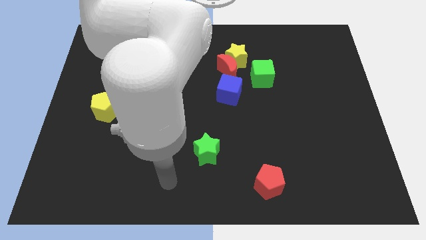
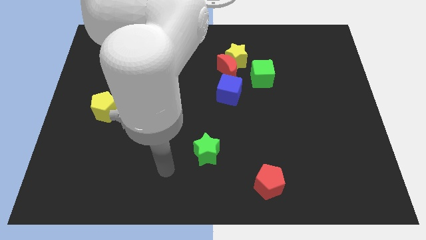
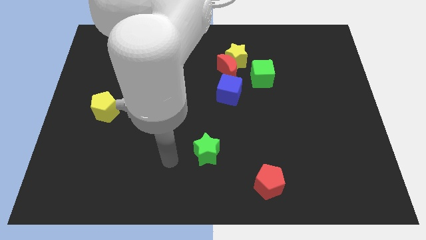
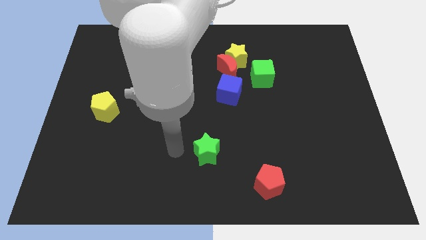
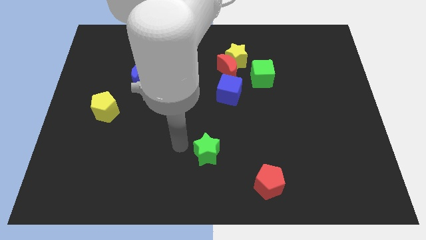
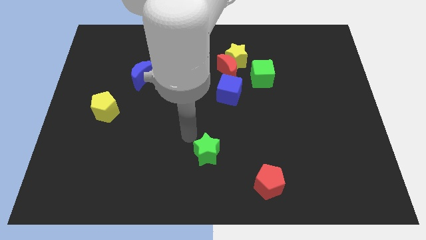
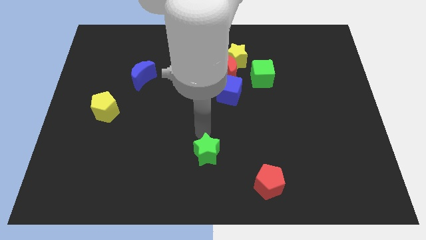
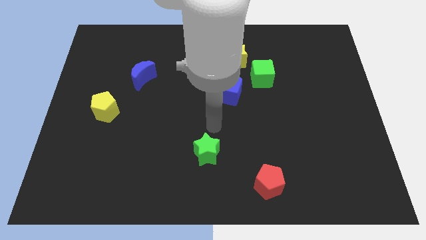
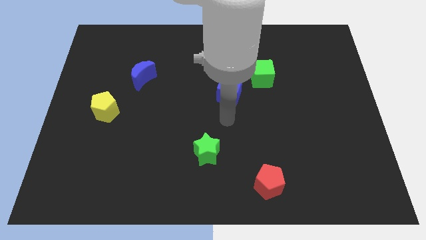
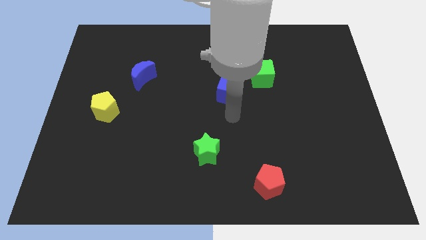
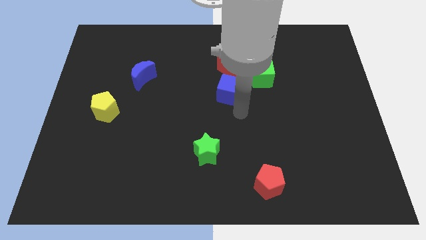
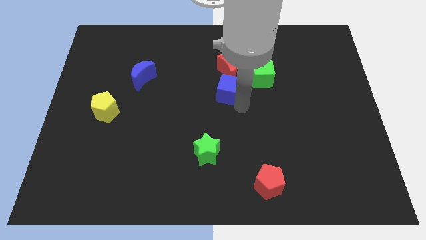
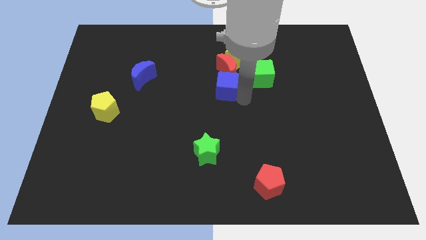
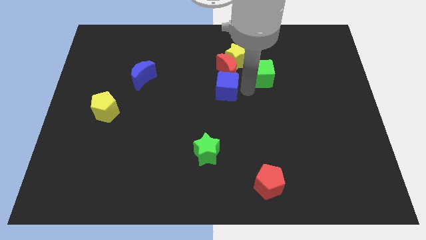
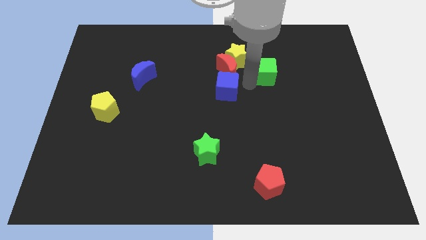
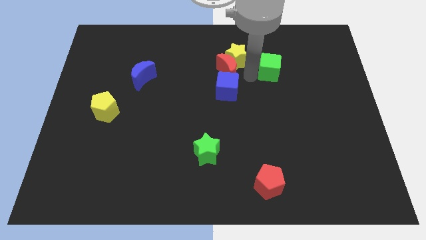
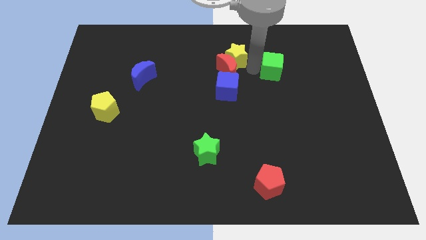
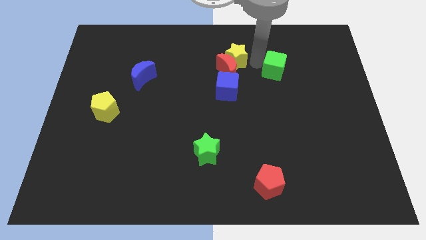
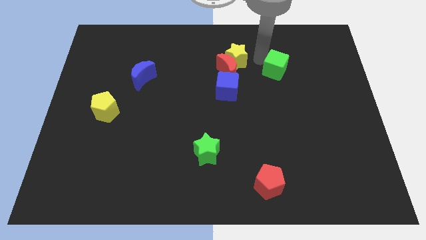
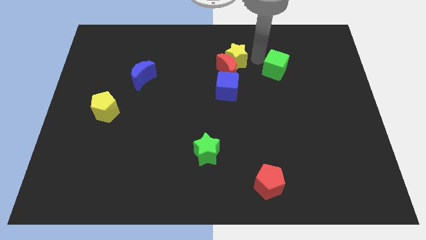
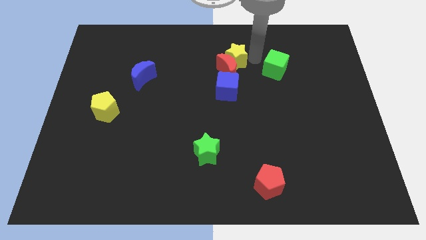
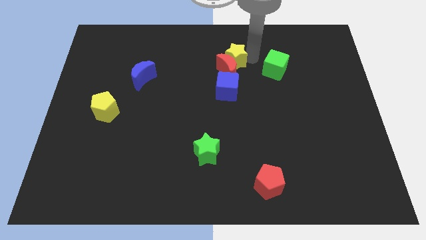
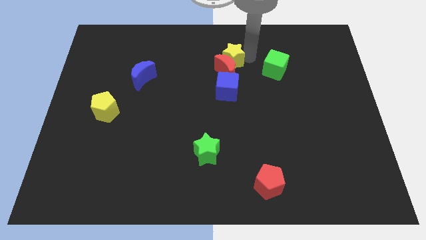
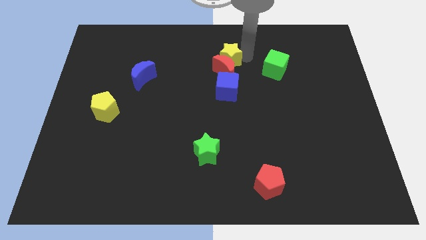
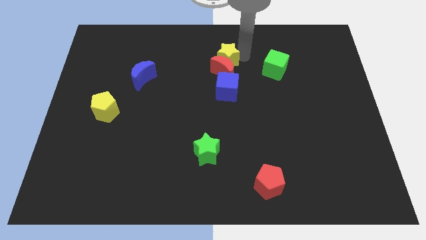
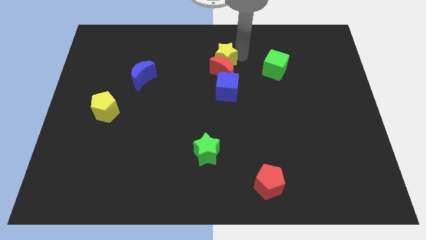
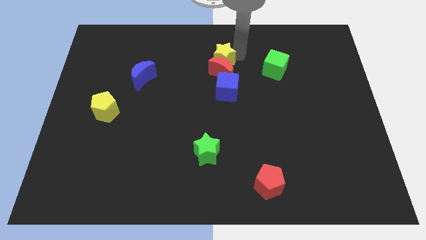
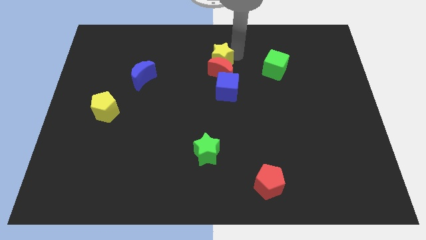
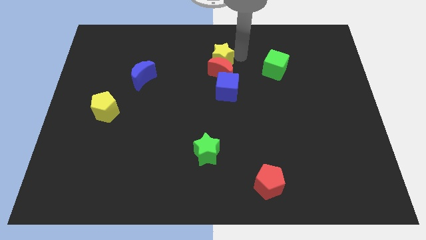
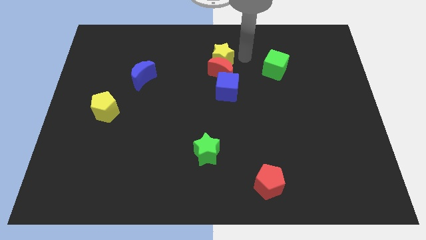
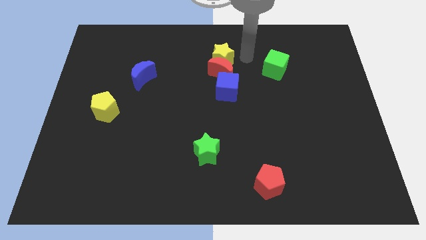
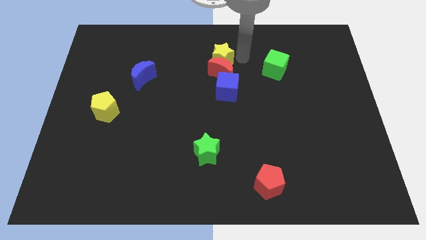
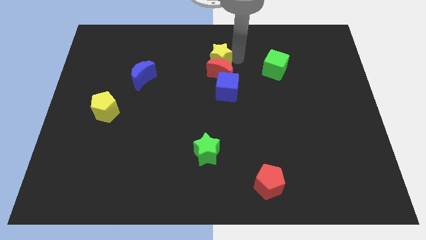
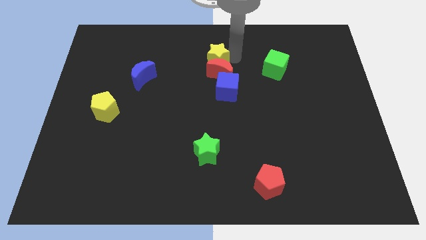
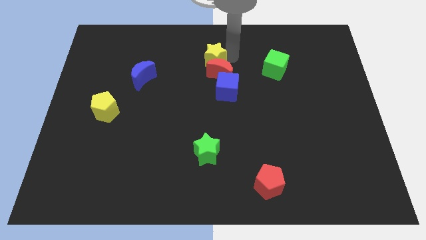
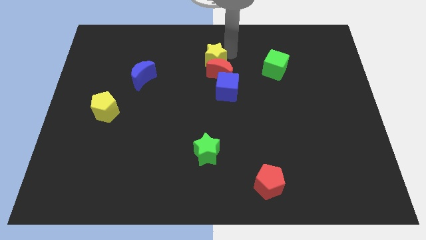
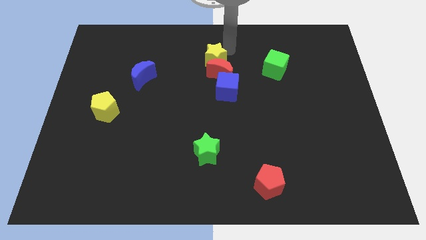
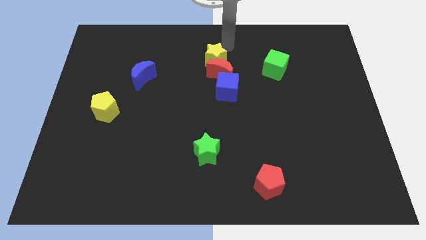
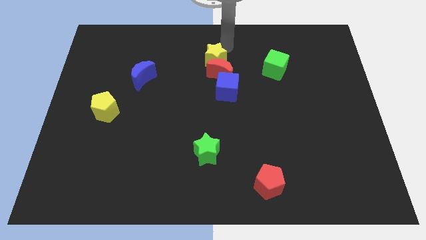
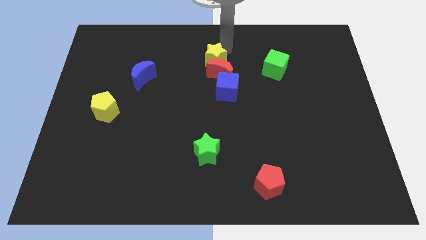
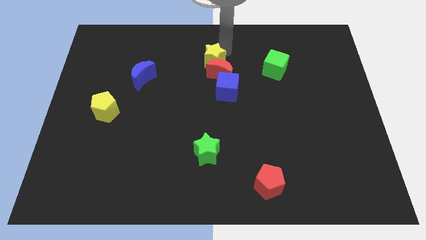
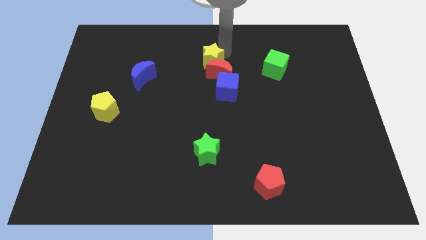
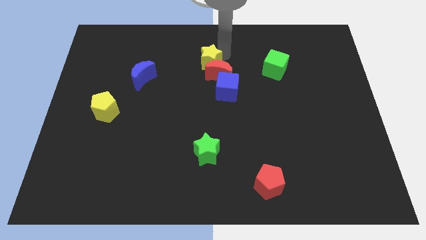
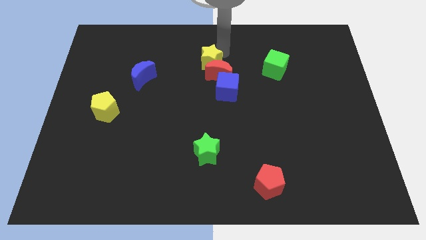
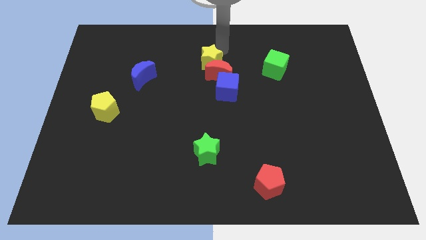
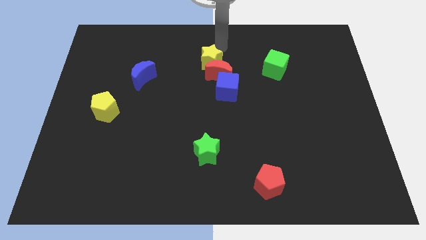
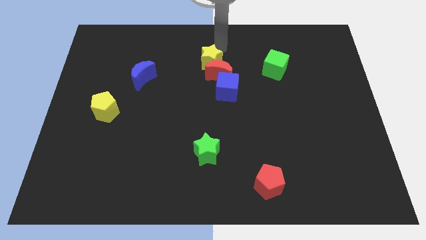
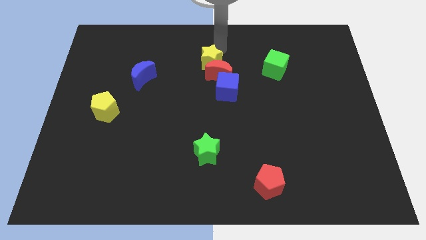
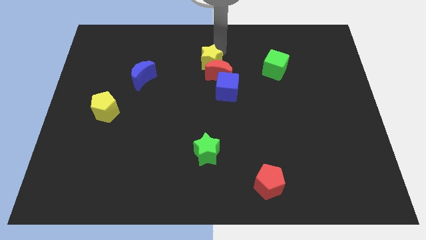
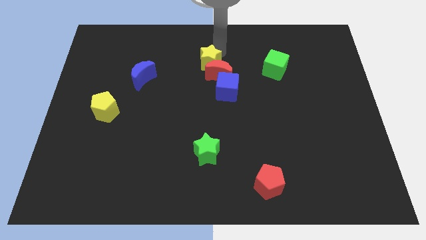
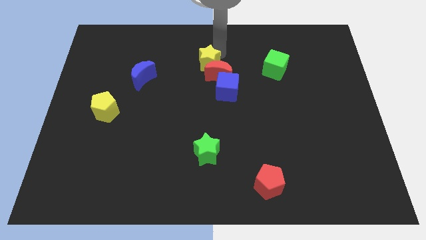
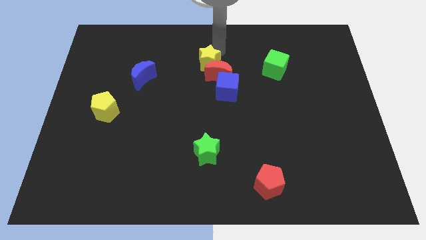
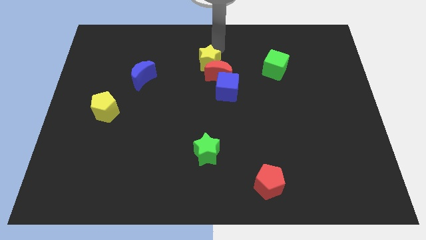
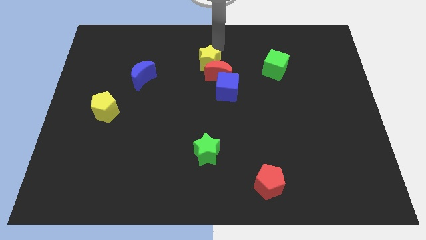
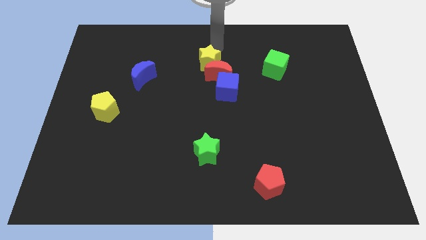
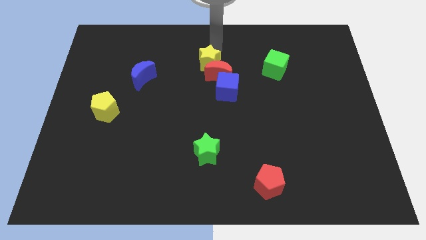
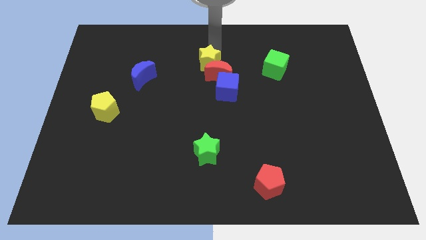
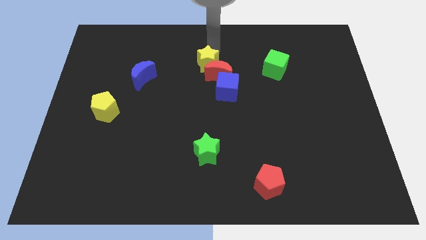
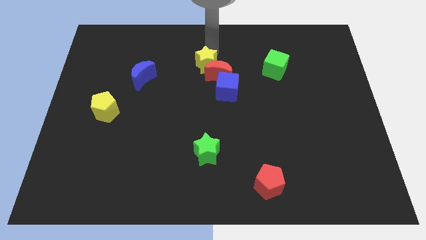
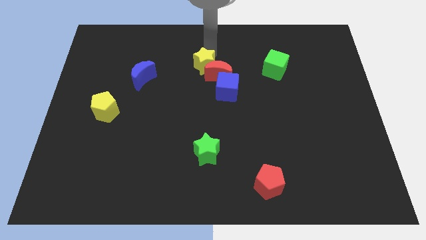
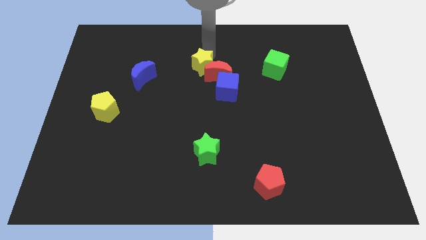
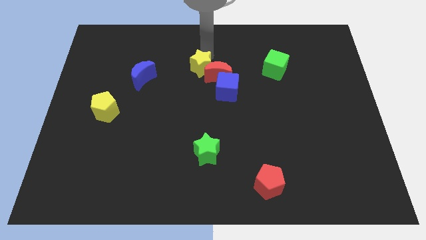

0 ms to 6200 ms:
slightly push the yellow star diagonally downwards and left

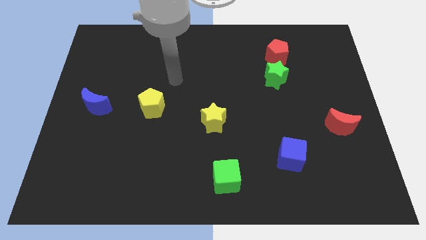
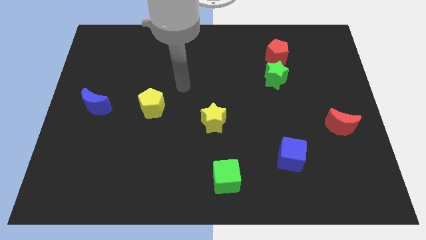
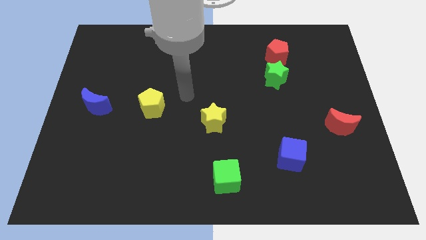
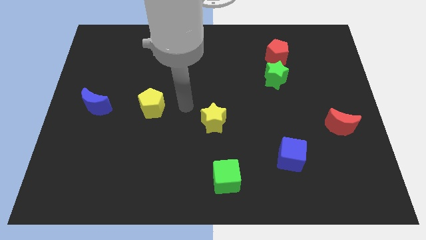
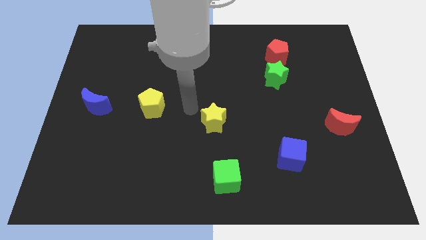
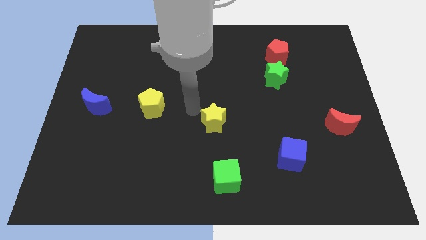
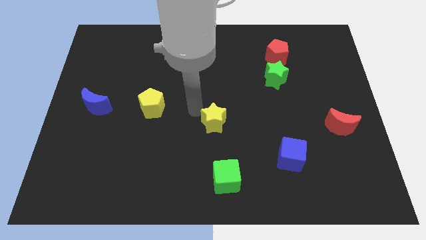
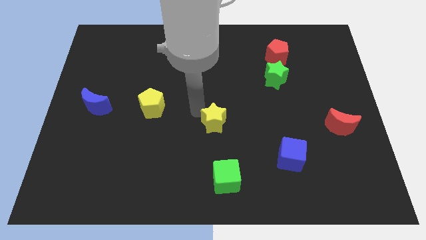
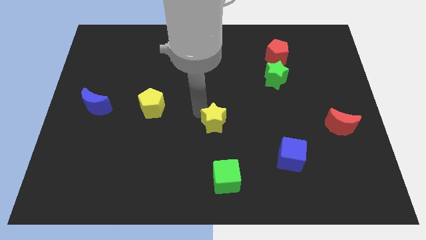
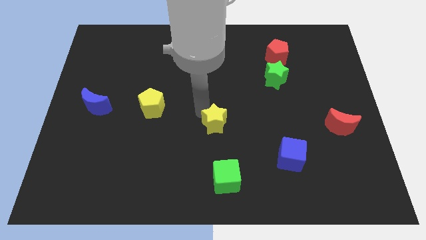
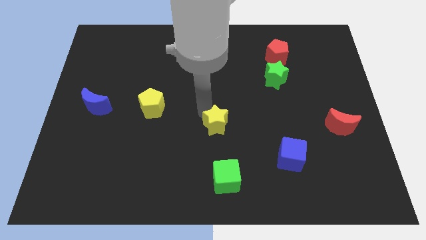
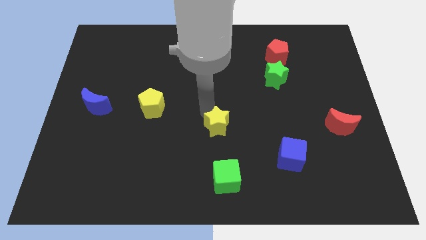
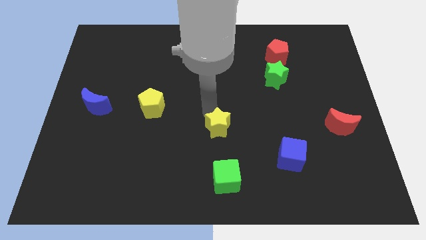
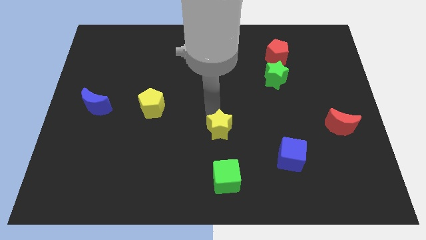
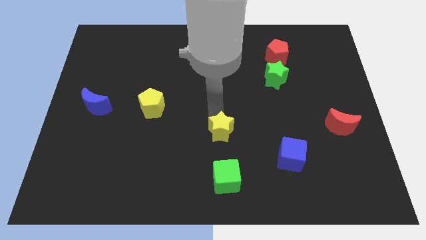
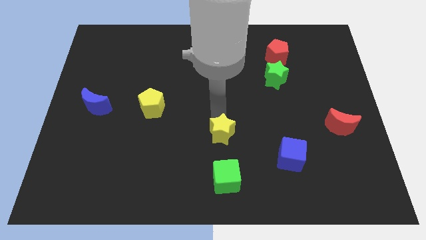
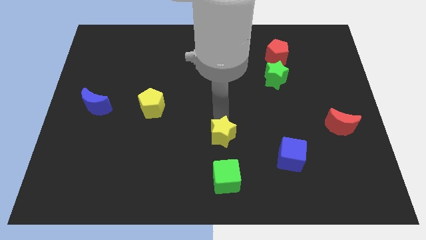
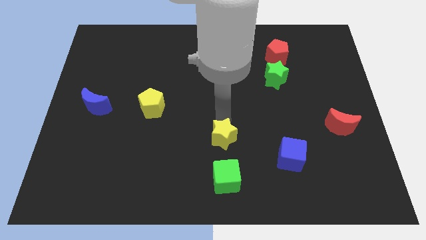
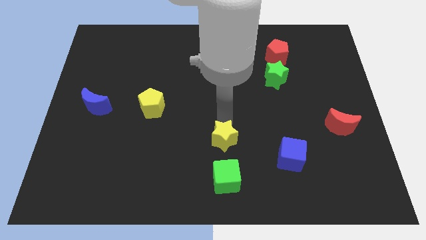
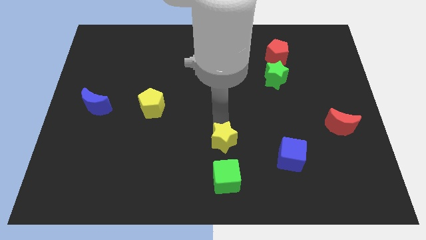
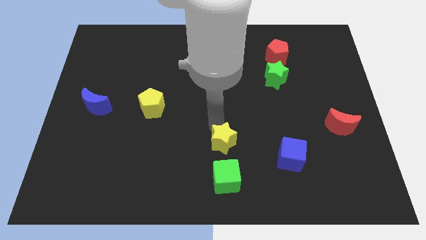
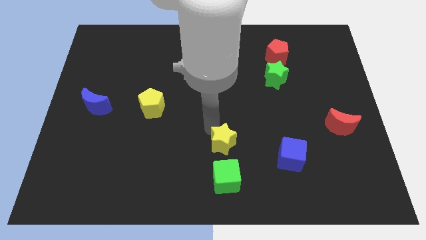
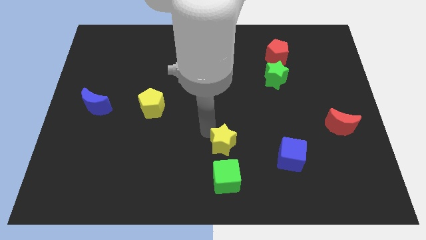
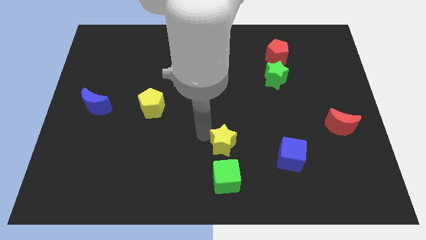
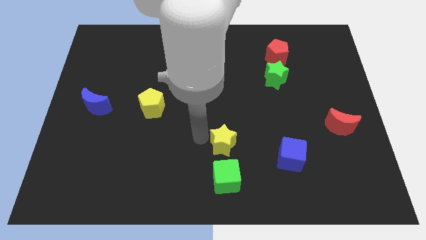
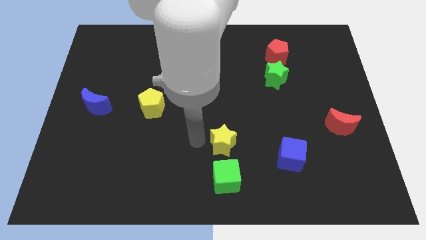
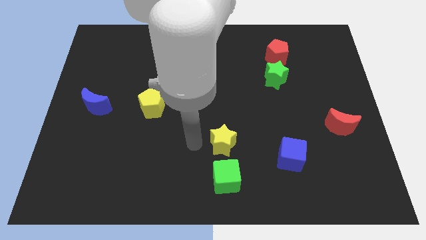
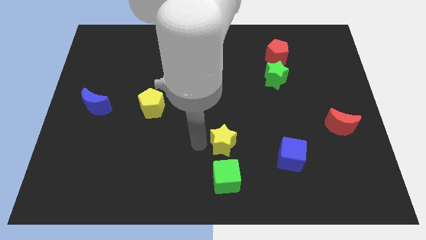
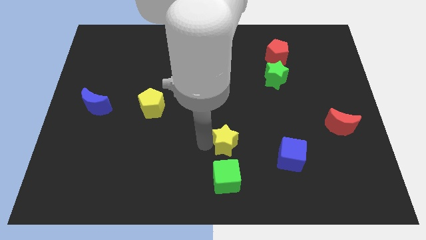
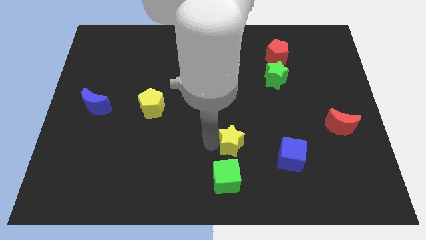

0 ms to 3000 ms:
push the yellow star a bit downwards and then to the right
